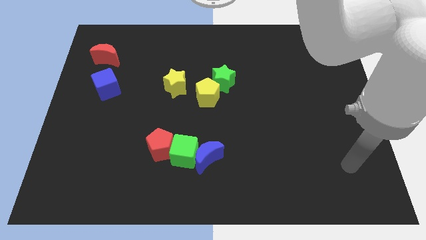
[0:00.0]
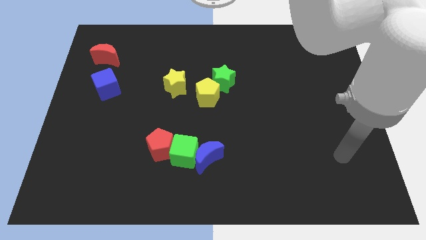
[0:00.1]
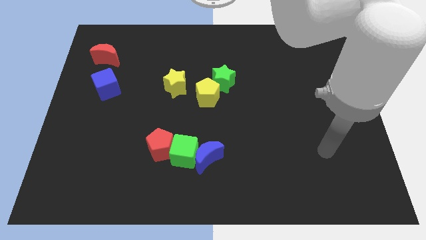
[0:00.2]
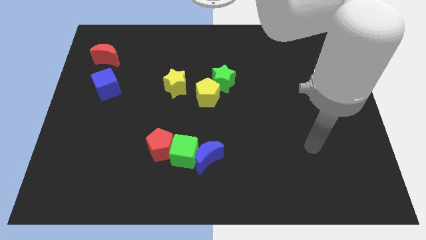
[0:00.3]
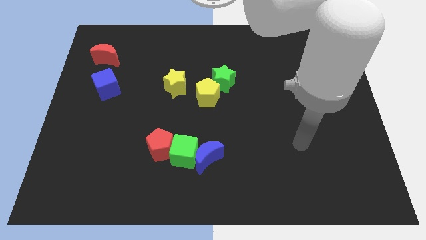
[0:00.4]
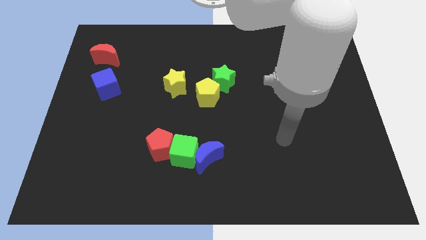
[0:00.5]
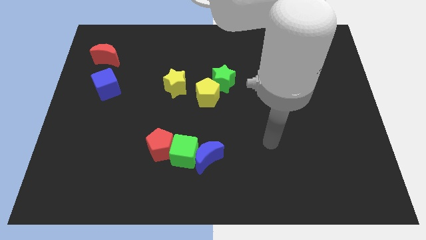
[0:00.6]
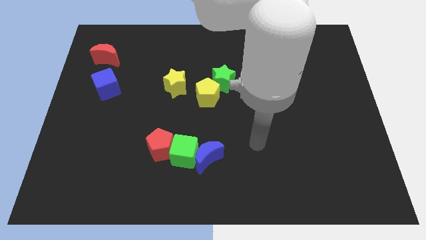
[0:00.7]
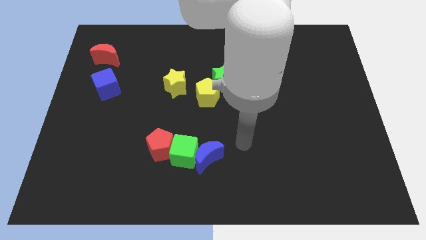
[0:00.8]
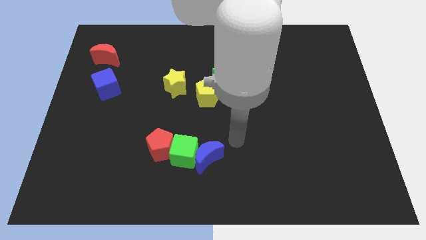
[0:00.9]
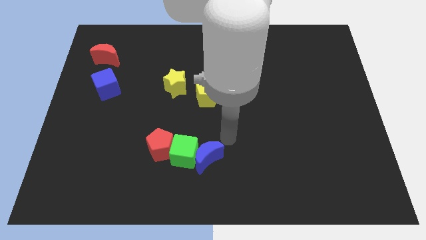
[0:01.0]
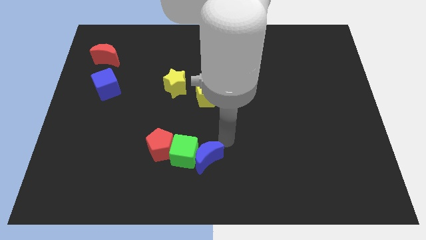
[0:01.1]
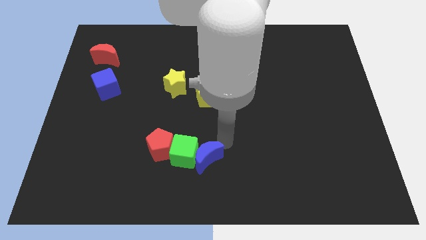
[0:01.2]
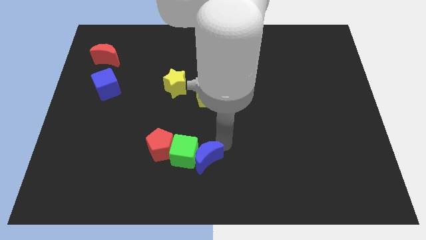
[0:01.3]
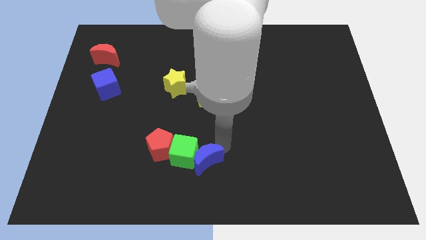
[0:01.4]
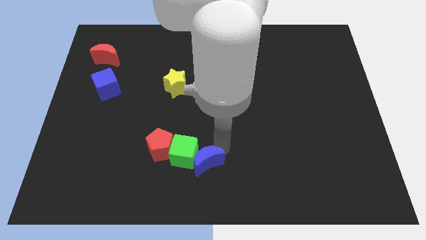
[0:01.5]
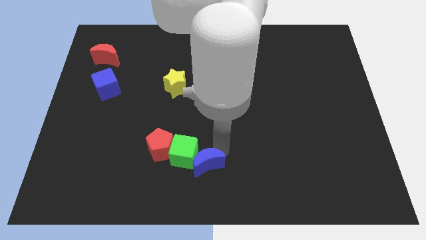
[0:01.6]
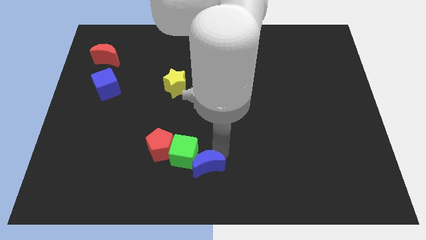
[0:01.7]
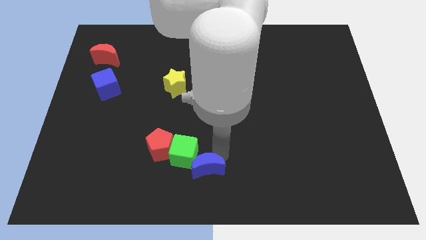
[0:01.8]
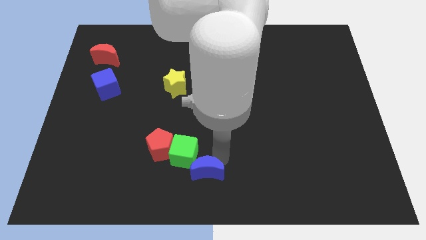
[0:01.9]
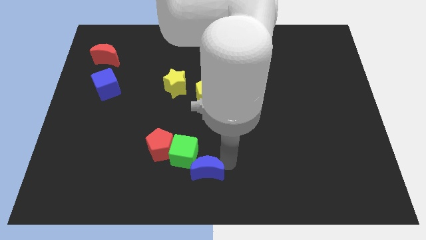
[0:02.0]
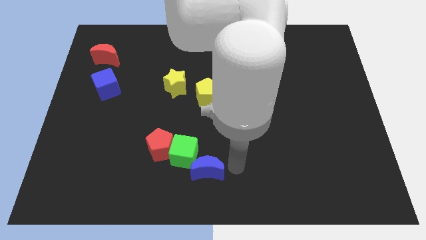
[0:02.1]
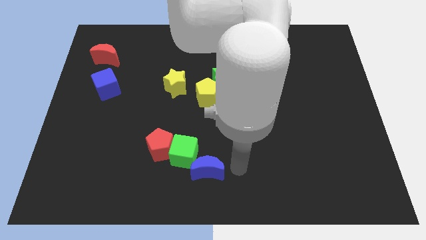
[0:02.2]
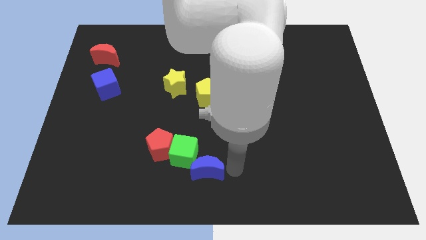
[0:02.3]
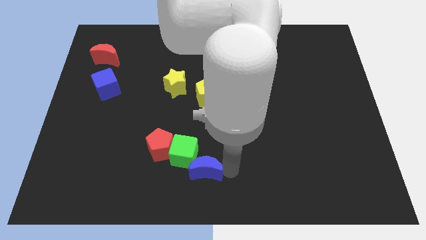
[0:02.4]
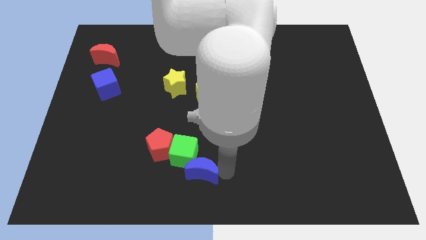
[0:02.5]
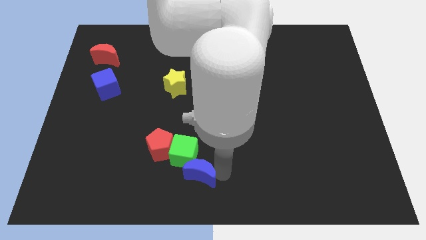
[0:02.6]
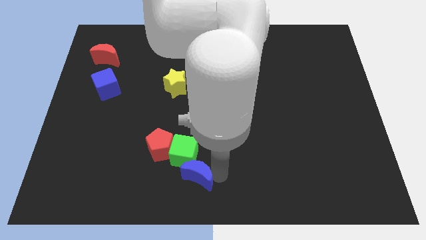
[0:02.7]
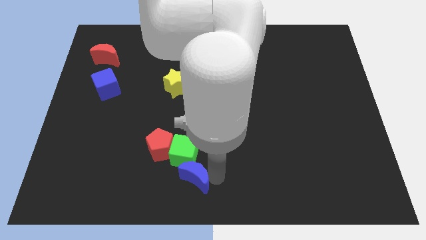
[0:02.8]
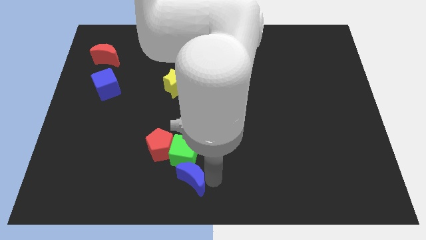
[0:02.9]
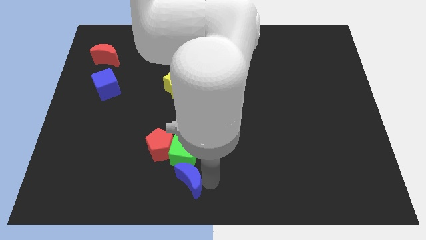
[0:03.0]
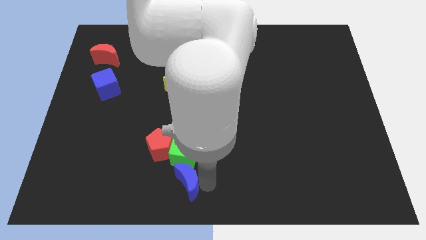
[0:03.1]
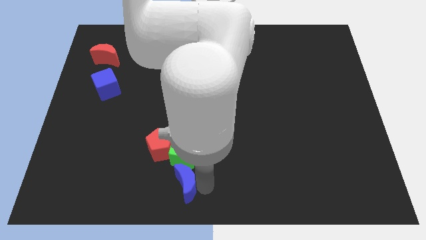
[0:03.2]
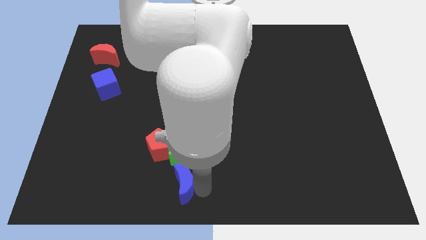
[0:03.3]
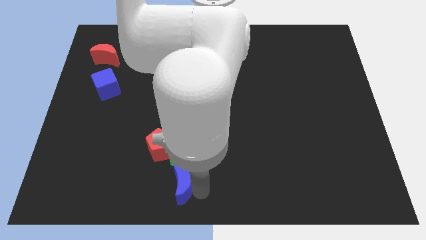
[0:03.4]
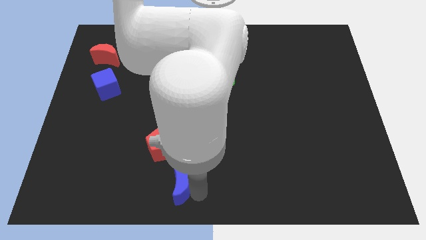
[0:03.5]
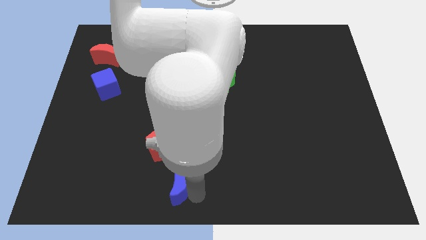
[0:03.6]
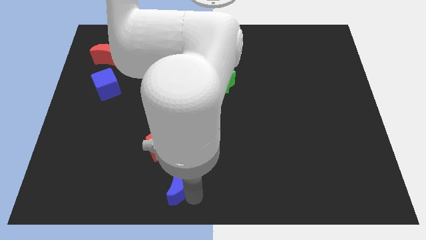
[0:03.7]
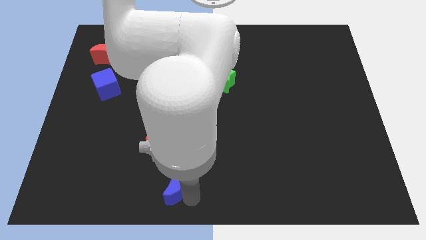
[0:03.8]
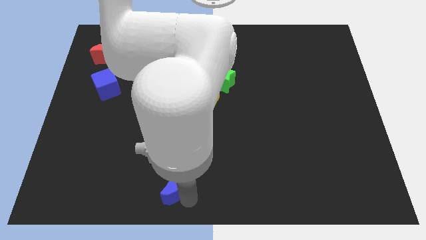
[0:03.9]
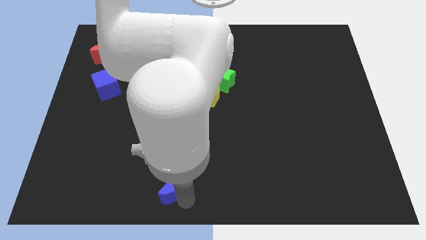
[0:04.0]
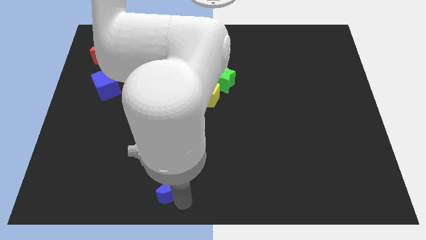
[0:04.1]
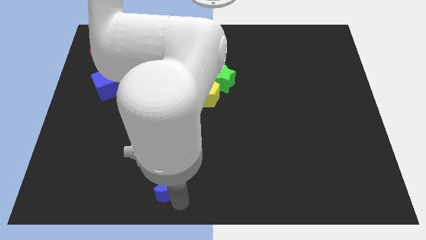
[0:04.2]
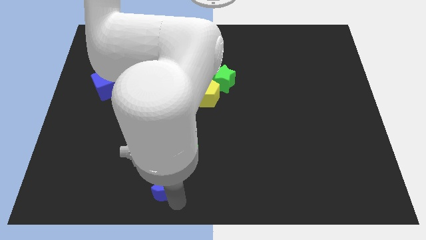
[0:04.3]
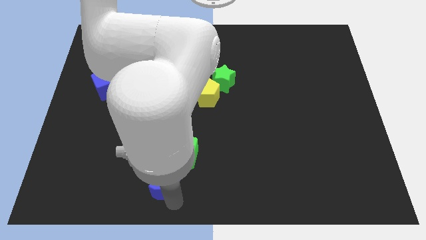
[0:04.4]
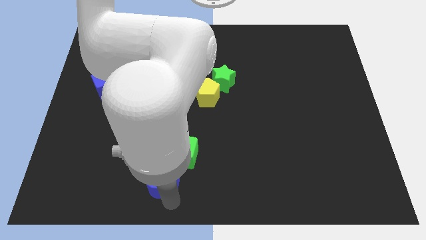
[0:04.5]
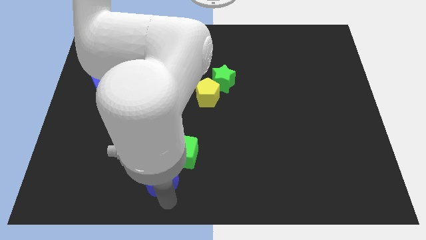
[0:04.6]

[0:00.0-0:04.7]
slightly push the blue moon to the left

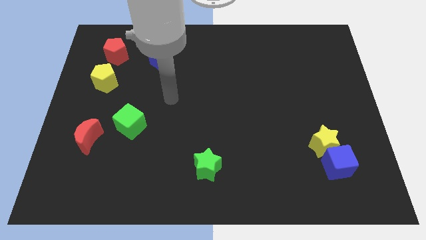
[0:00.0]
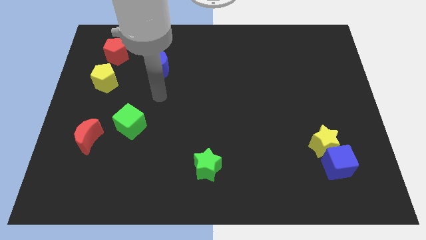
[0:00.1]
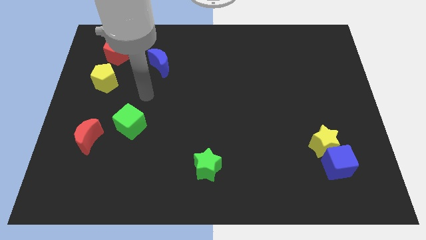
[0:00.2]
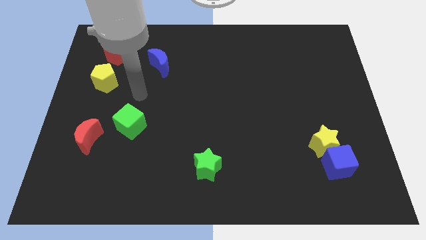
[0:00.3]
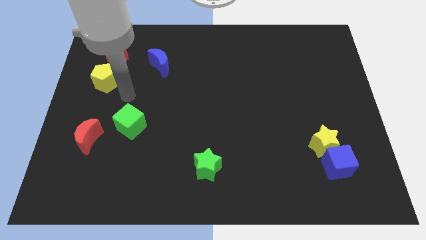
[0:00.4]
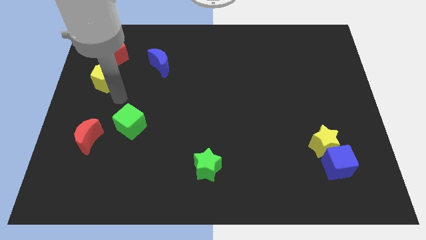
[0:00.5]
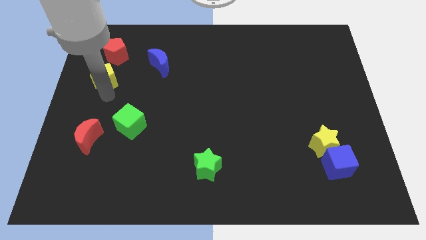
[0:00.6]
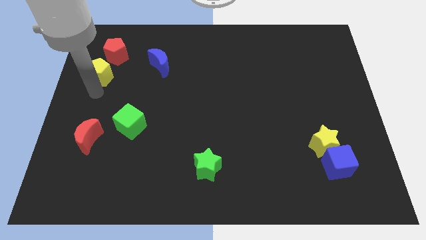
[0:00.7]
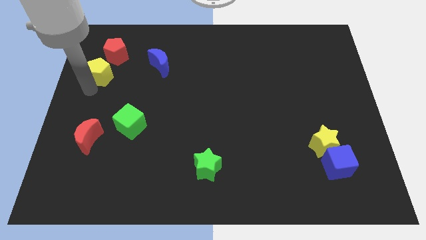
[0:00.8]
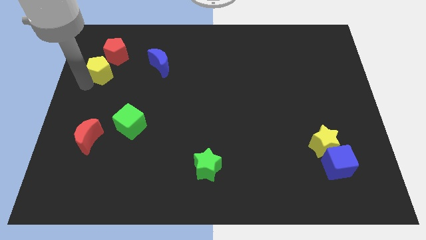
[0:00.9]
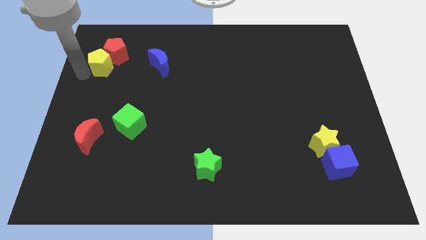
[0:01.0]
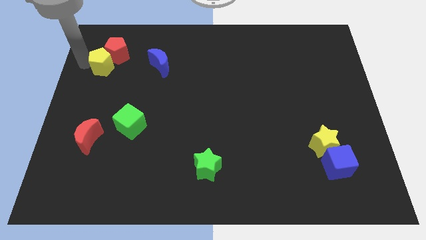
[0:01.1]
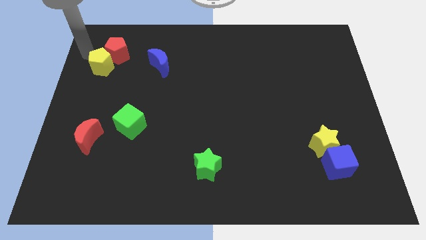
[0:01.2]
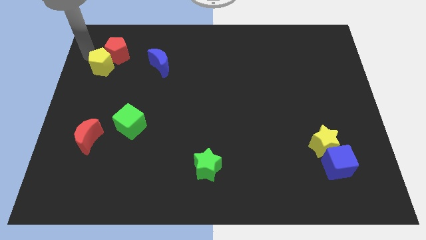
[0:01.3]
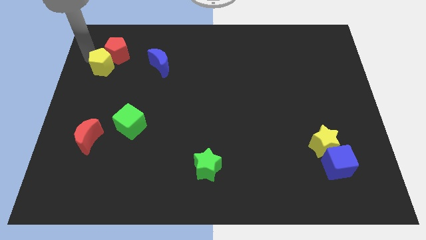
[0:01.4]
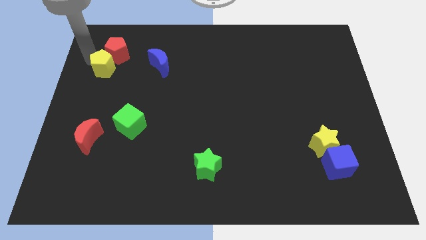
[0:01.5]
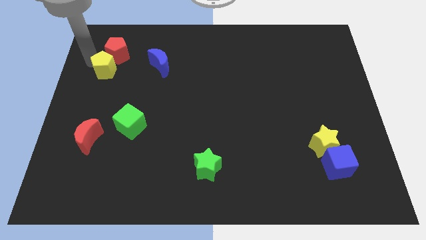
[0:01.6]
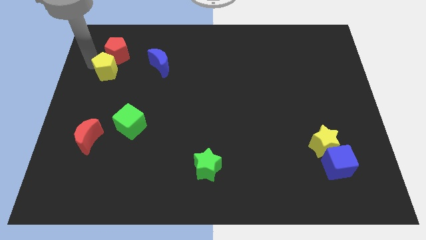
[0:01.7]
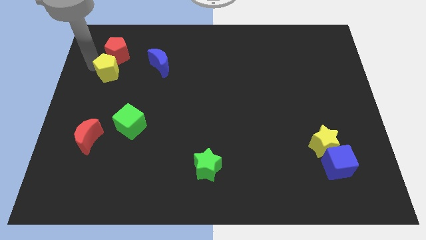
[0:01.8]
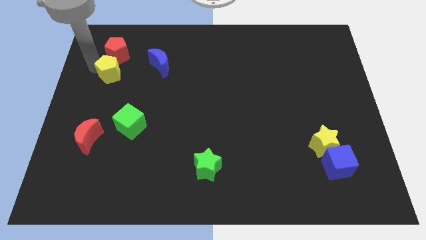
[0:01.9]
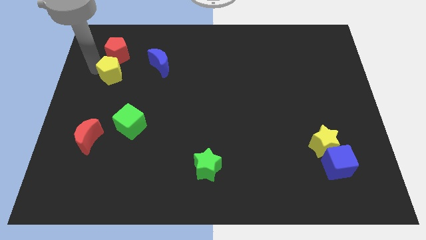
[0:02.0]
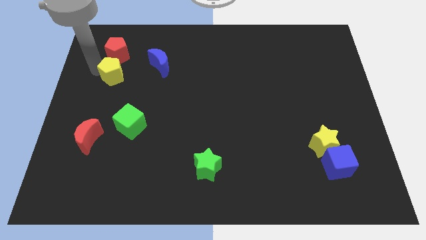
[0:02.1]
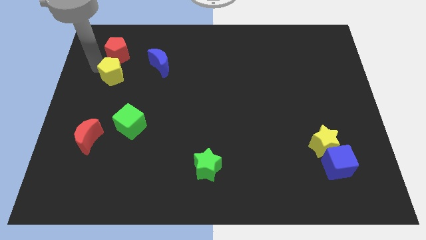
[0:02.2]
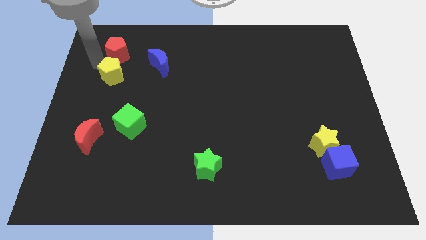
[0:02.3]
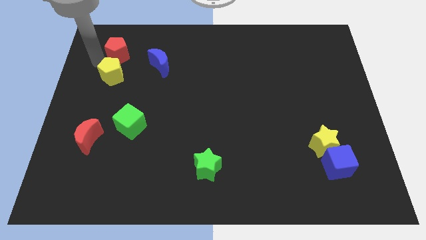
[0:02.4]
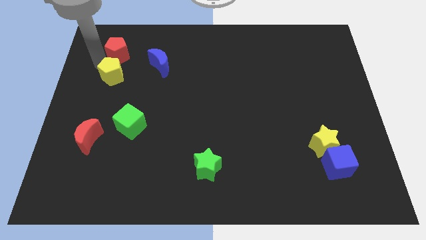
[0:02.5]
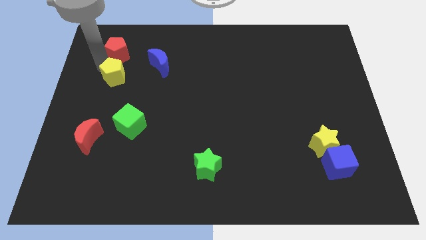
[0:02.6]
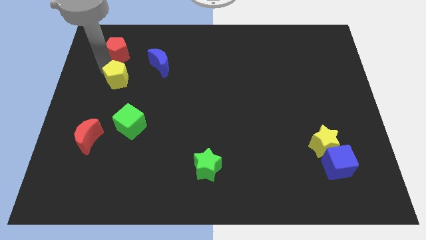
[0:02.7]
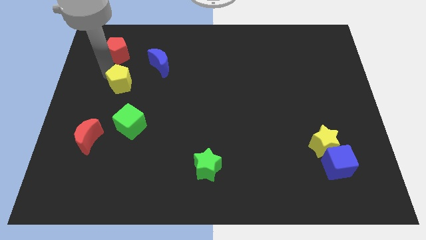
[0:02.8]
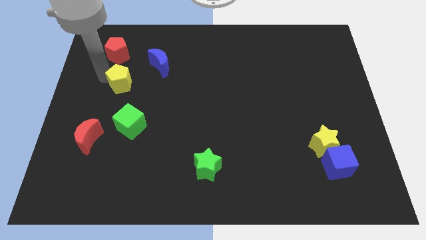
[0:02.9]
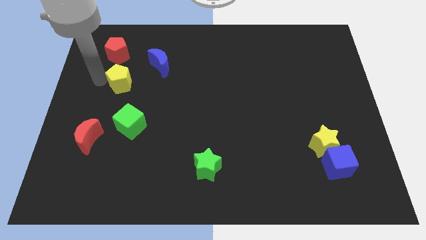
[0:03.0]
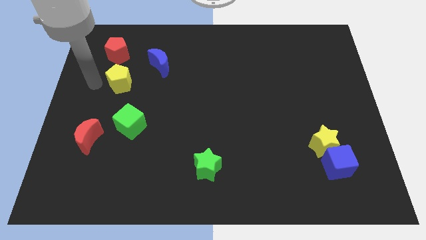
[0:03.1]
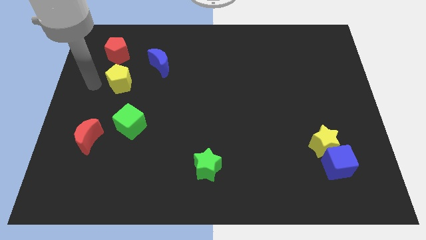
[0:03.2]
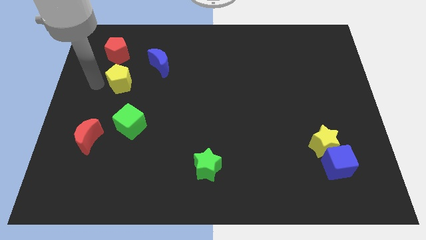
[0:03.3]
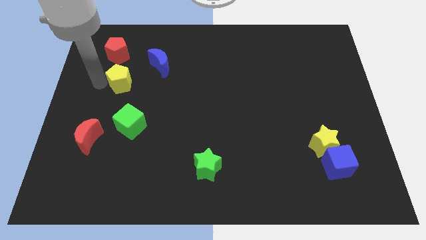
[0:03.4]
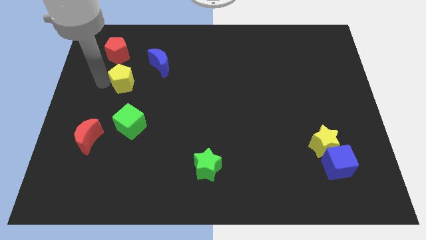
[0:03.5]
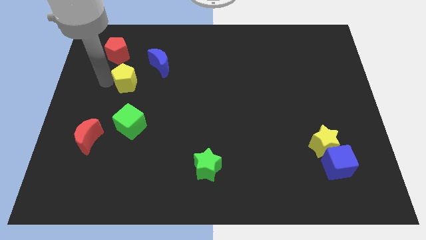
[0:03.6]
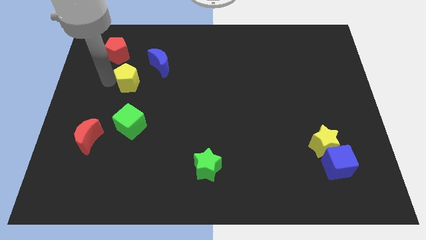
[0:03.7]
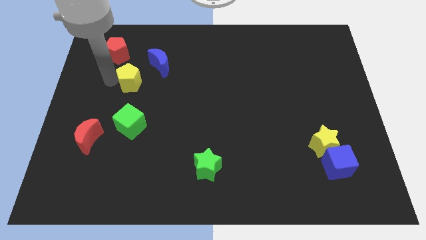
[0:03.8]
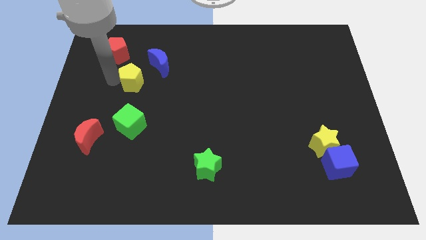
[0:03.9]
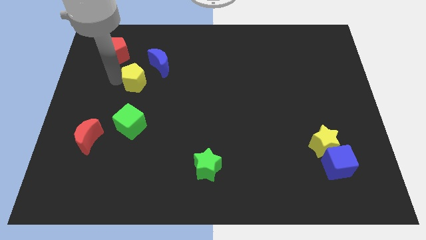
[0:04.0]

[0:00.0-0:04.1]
move the yellow pentagon to the right slightly
